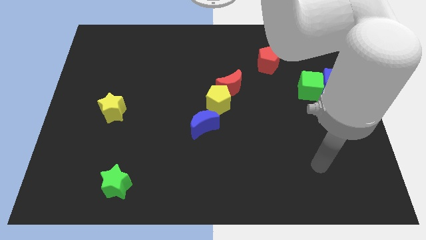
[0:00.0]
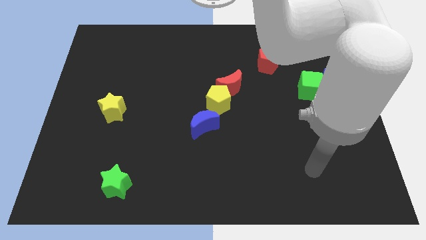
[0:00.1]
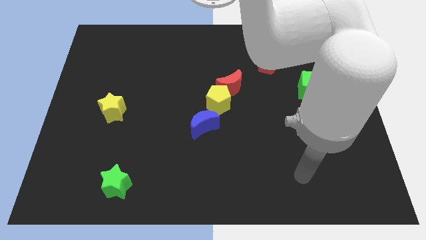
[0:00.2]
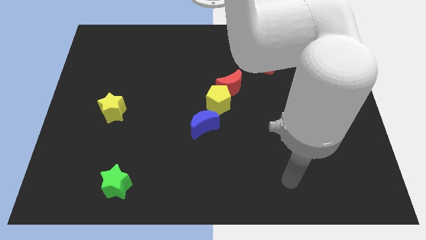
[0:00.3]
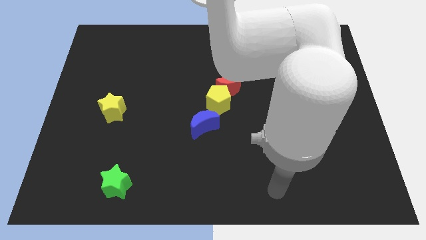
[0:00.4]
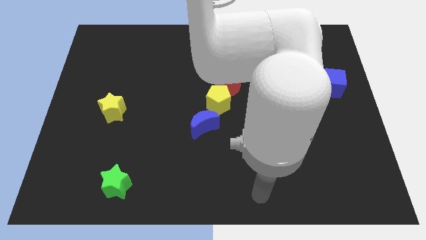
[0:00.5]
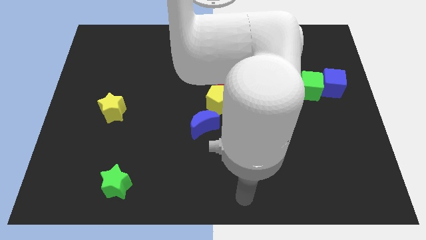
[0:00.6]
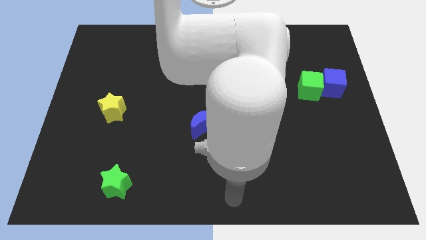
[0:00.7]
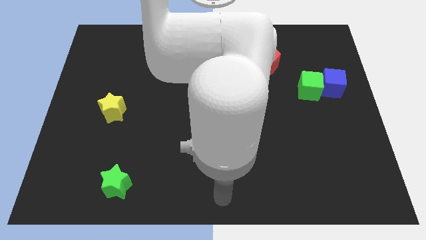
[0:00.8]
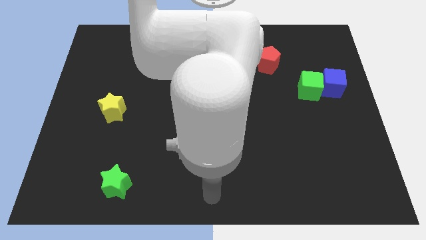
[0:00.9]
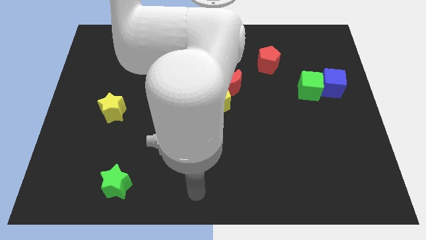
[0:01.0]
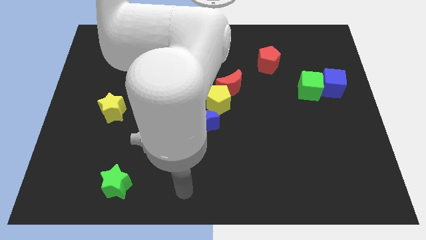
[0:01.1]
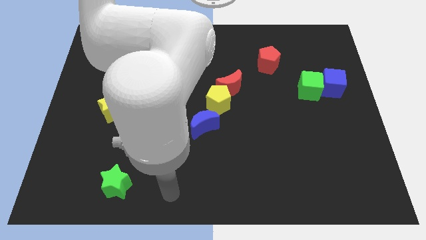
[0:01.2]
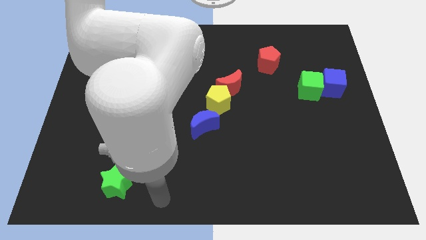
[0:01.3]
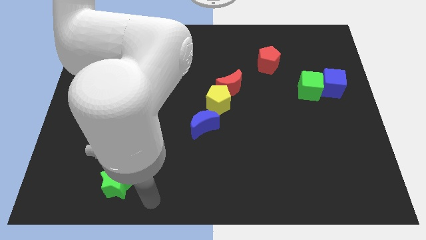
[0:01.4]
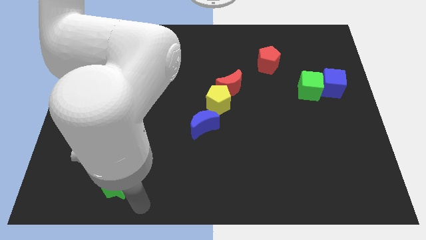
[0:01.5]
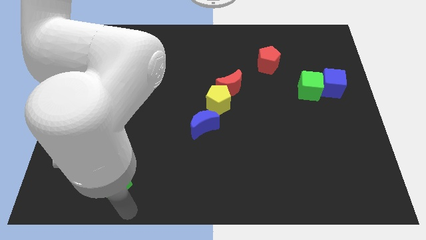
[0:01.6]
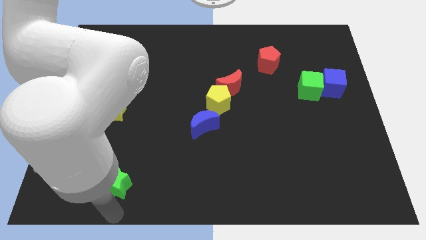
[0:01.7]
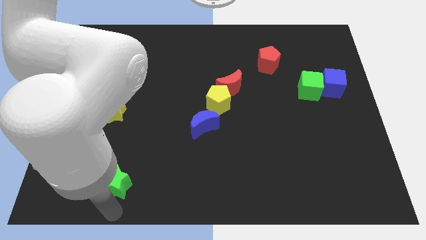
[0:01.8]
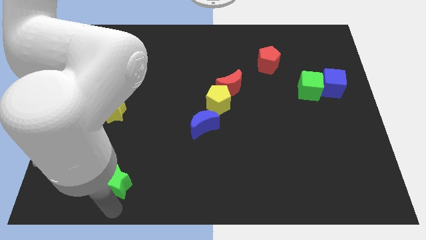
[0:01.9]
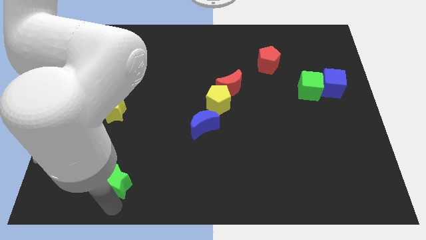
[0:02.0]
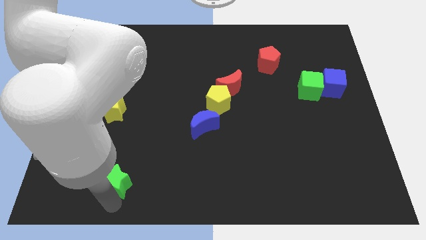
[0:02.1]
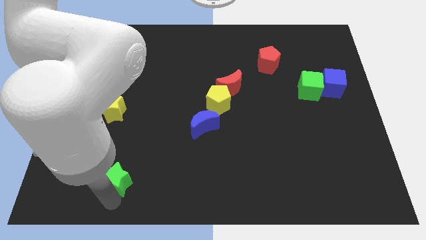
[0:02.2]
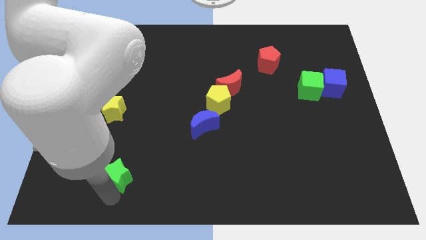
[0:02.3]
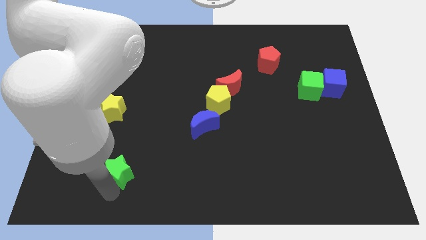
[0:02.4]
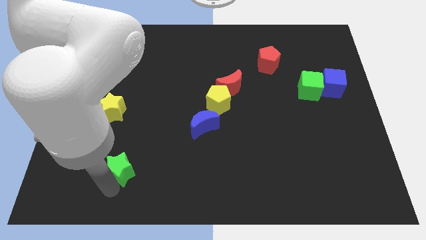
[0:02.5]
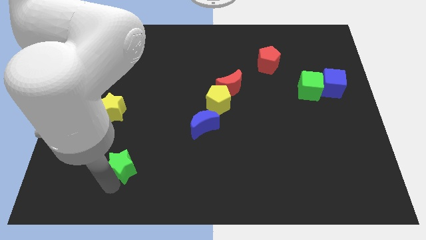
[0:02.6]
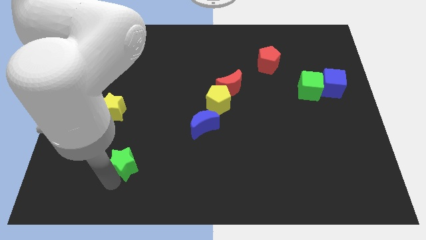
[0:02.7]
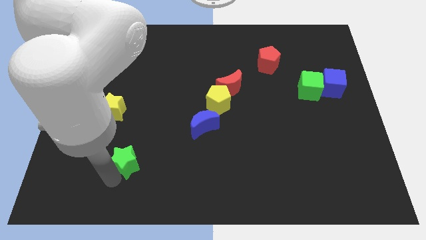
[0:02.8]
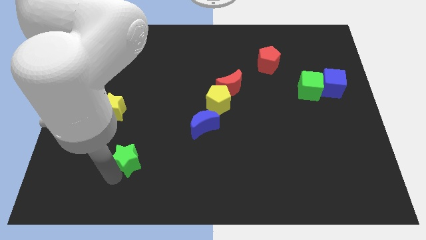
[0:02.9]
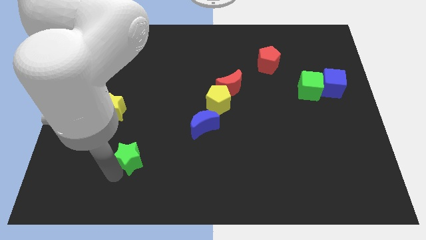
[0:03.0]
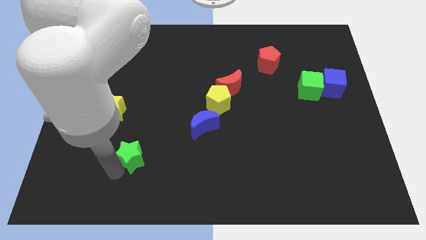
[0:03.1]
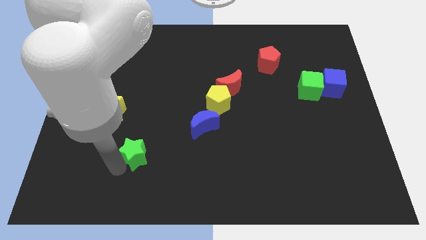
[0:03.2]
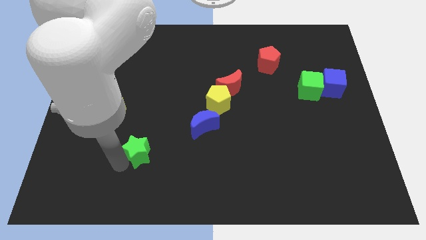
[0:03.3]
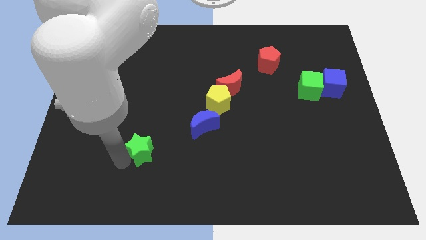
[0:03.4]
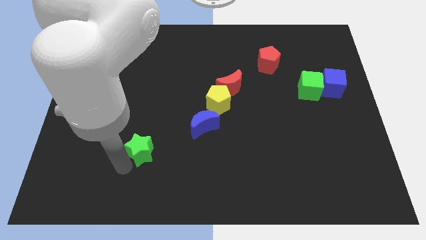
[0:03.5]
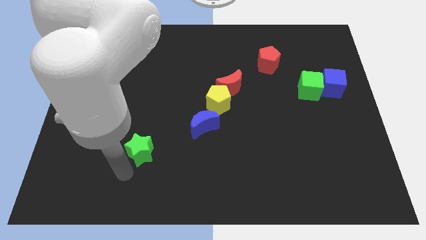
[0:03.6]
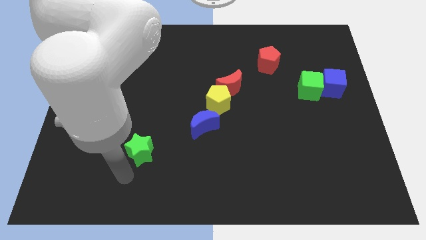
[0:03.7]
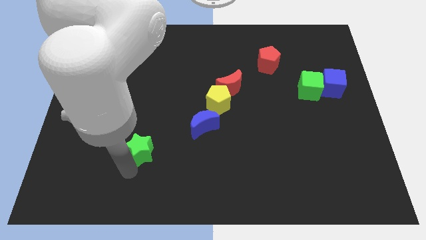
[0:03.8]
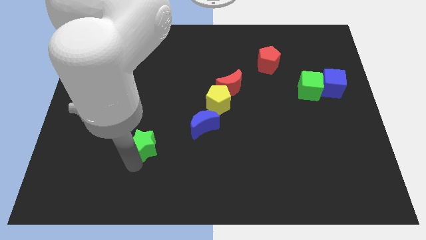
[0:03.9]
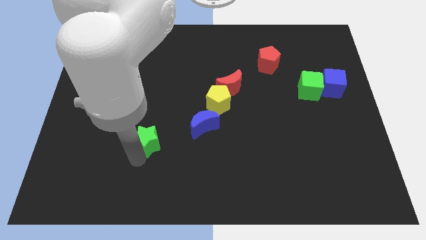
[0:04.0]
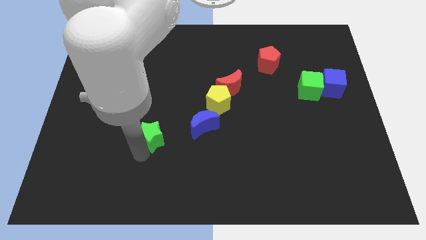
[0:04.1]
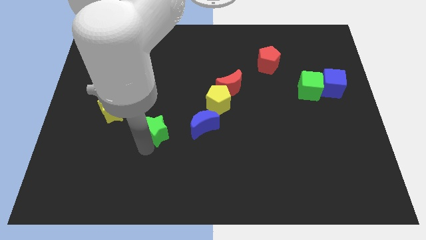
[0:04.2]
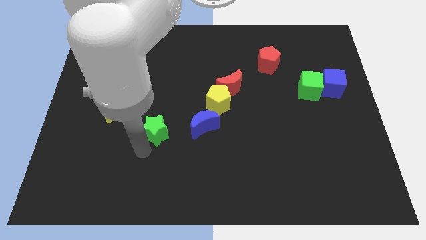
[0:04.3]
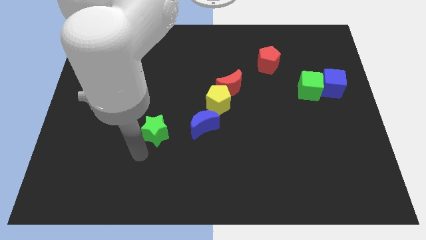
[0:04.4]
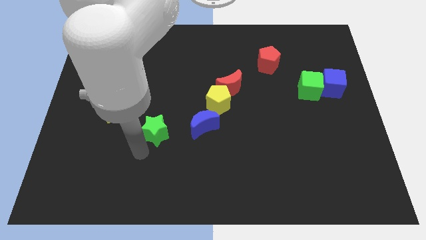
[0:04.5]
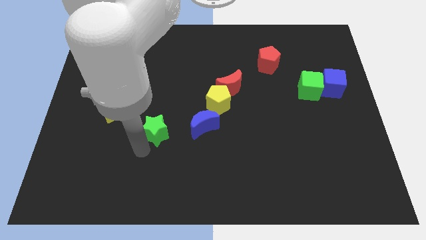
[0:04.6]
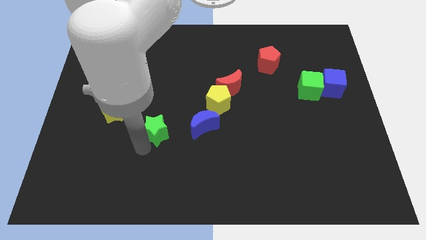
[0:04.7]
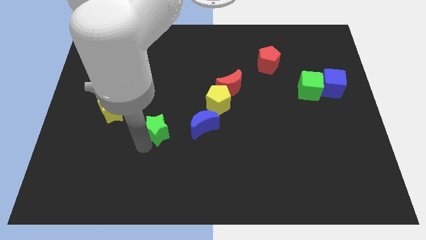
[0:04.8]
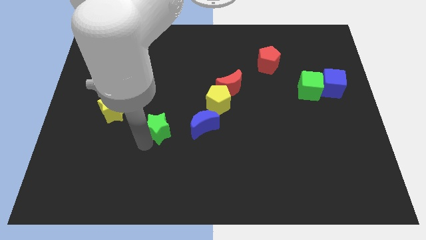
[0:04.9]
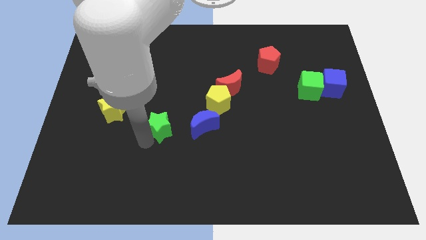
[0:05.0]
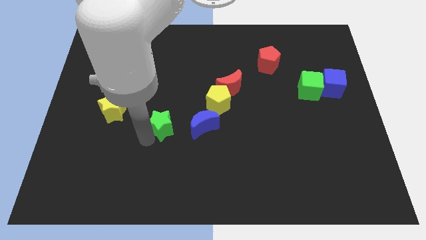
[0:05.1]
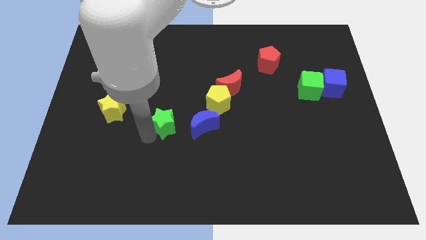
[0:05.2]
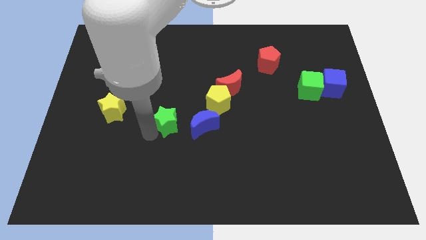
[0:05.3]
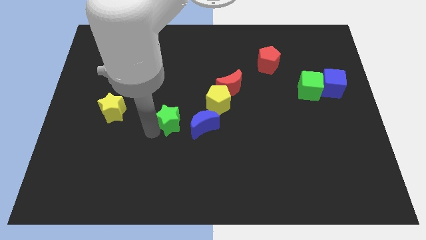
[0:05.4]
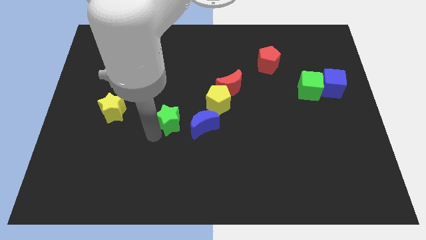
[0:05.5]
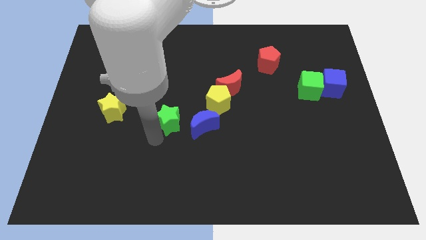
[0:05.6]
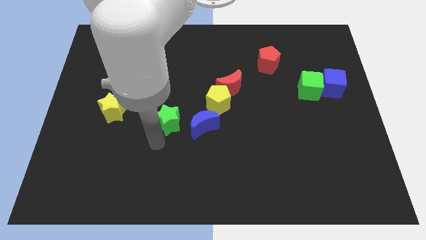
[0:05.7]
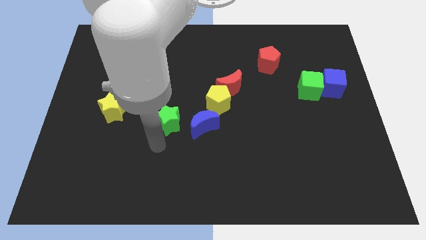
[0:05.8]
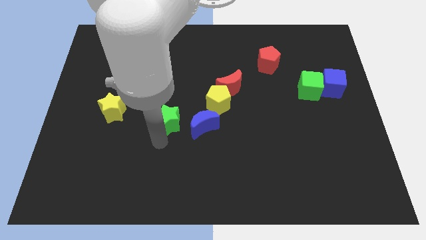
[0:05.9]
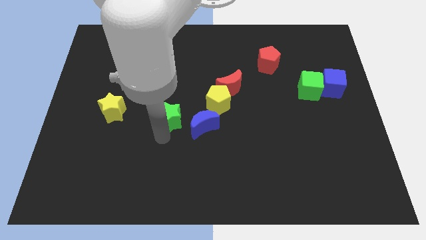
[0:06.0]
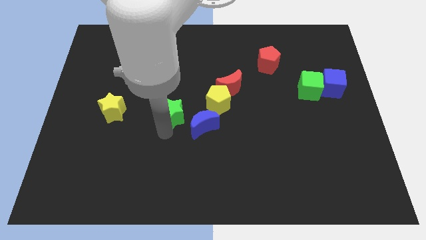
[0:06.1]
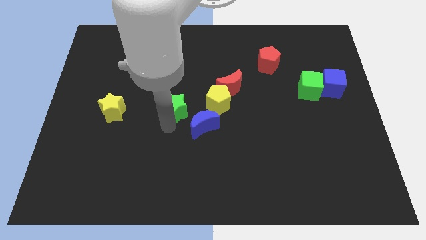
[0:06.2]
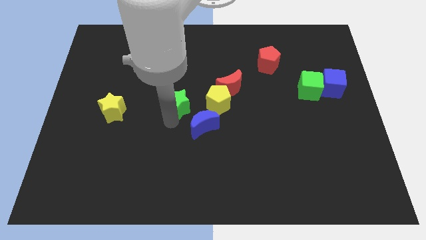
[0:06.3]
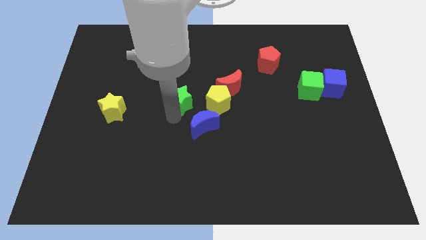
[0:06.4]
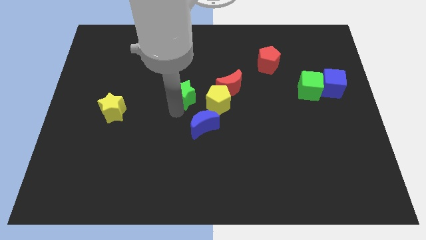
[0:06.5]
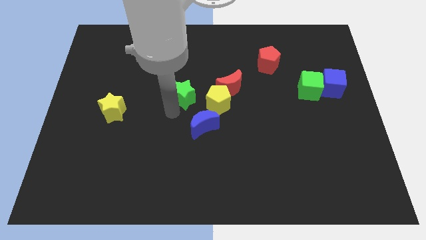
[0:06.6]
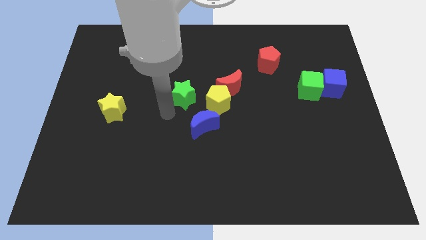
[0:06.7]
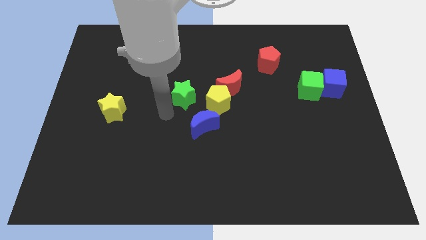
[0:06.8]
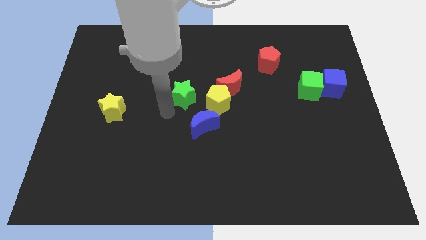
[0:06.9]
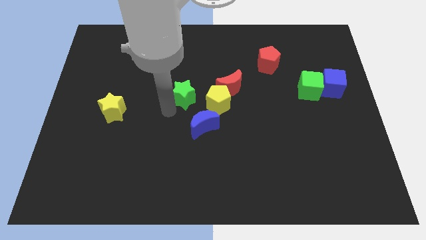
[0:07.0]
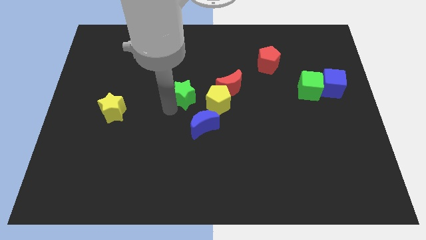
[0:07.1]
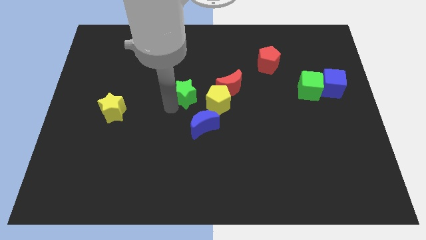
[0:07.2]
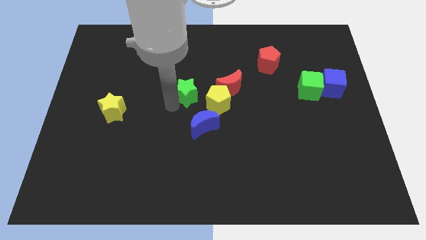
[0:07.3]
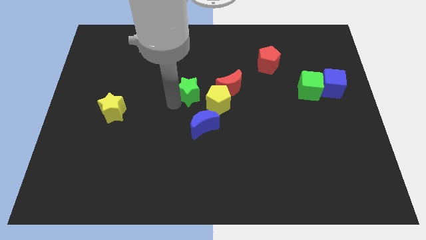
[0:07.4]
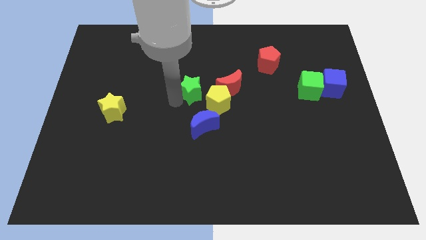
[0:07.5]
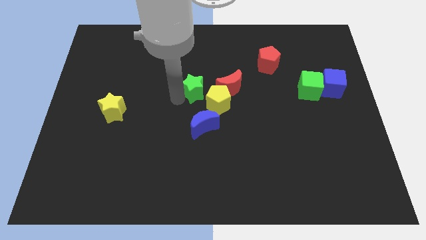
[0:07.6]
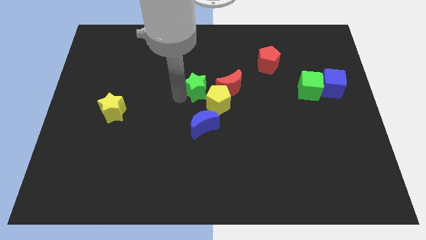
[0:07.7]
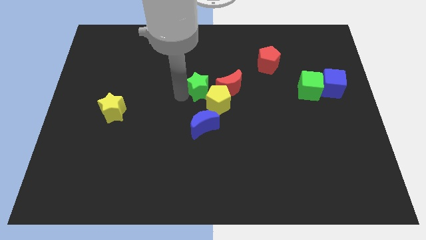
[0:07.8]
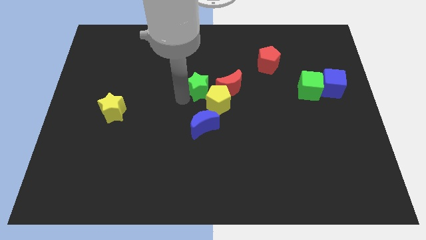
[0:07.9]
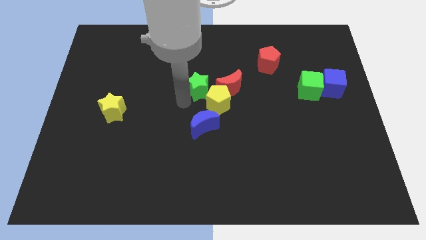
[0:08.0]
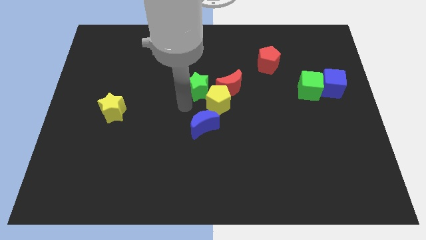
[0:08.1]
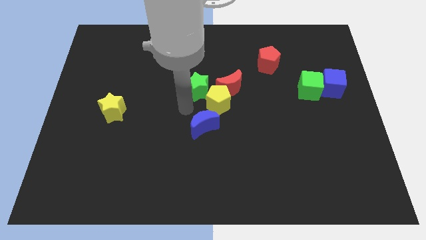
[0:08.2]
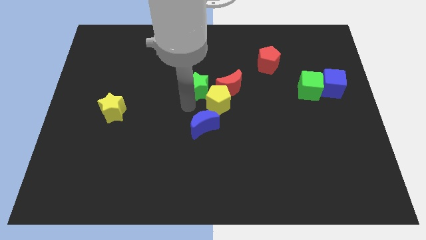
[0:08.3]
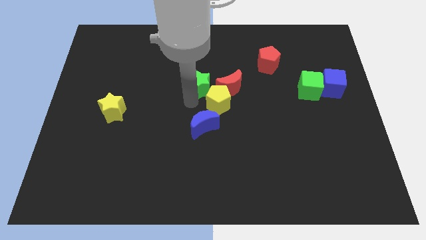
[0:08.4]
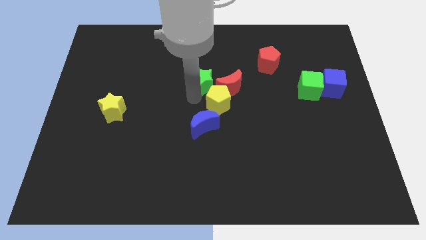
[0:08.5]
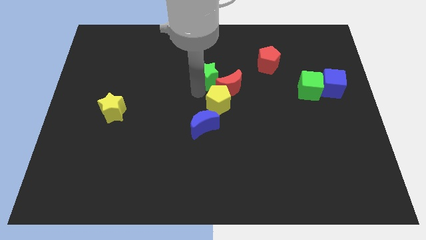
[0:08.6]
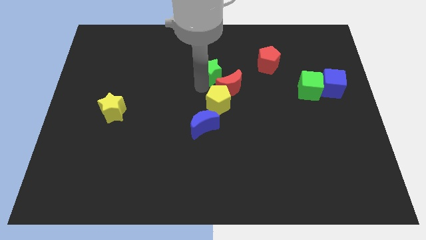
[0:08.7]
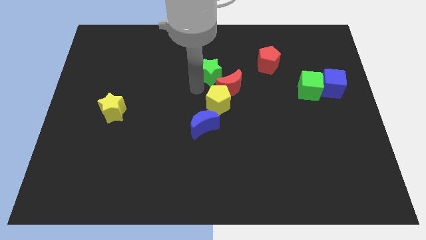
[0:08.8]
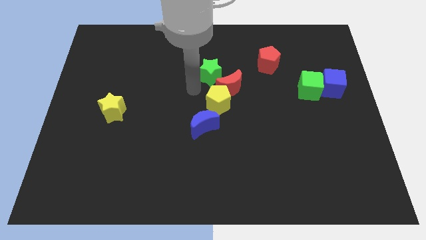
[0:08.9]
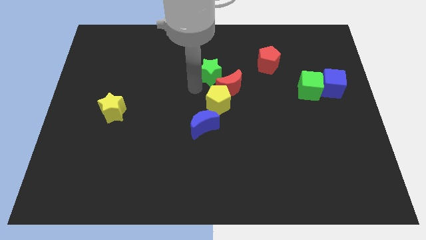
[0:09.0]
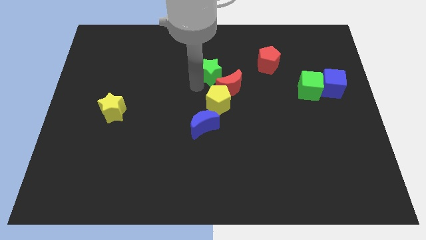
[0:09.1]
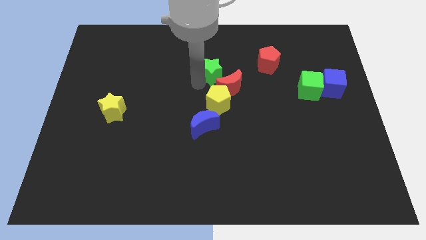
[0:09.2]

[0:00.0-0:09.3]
put the green star to the left of the red pentagon
